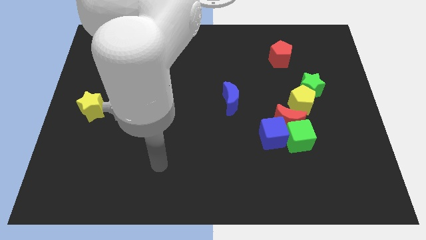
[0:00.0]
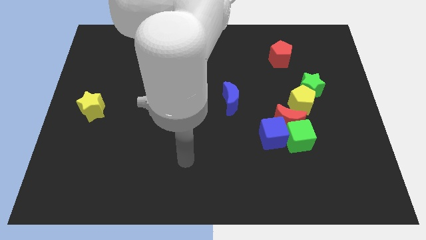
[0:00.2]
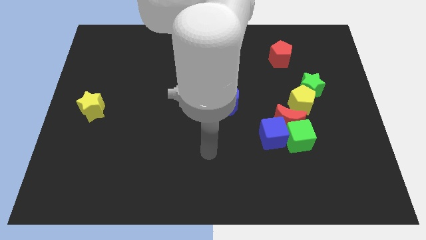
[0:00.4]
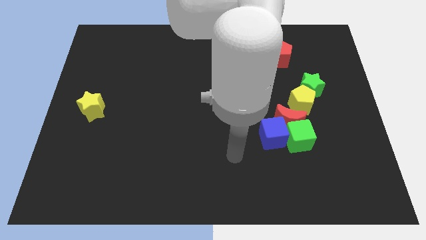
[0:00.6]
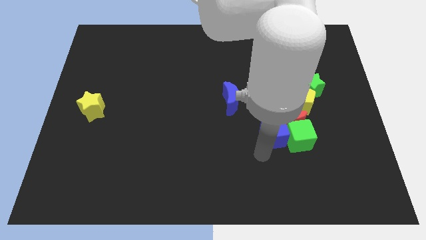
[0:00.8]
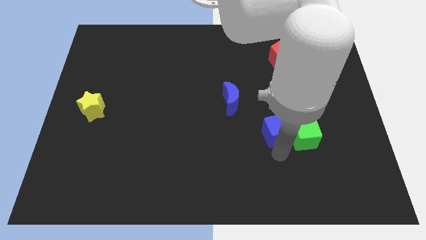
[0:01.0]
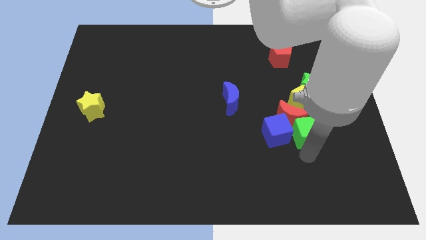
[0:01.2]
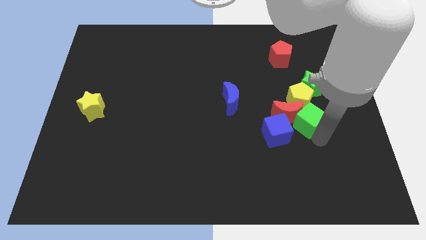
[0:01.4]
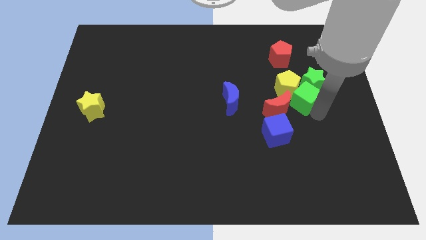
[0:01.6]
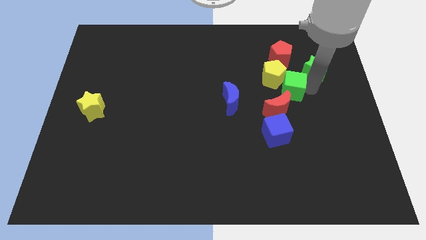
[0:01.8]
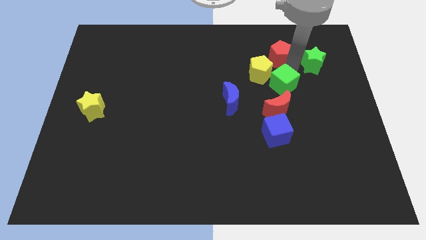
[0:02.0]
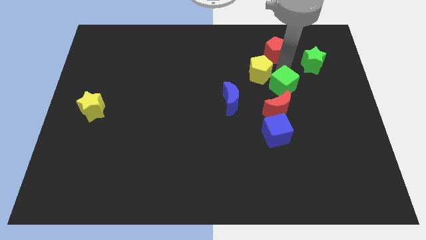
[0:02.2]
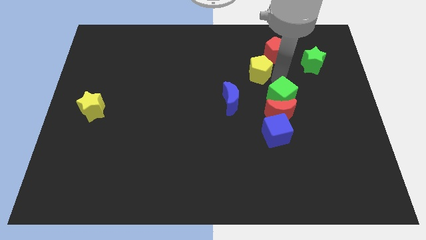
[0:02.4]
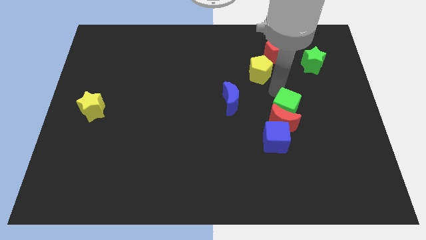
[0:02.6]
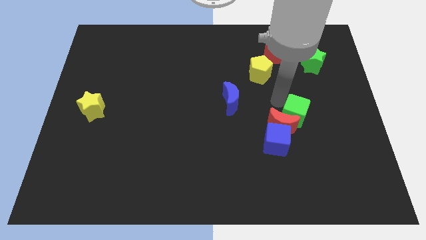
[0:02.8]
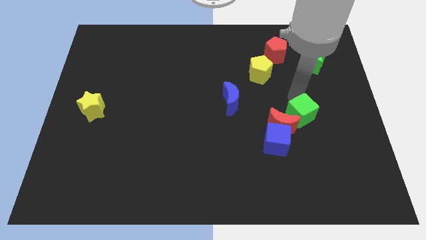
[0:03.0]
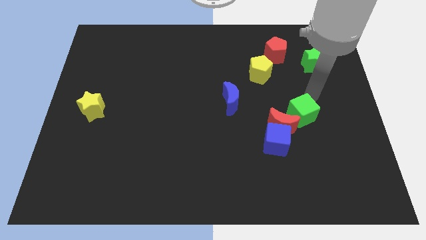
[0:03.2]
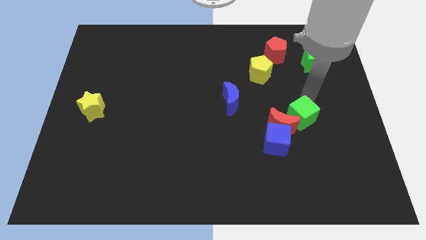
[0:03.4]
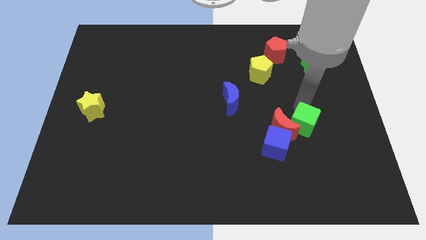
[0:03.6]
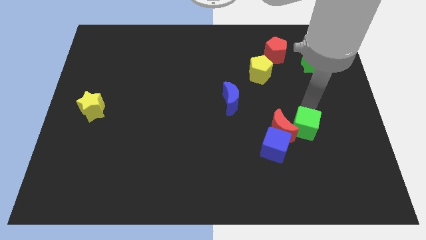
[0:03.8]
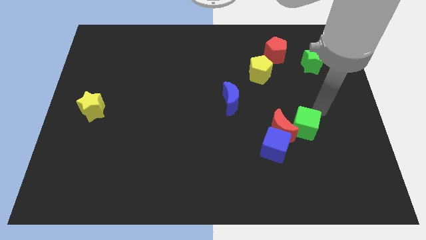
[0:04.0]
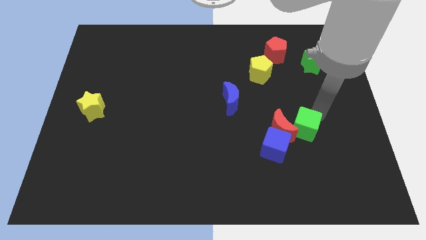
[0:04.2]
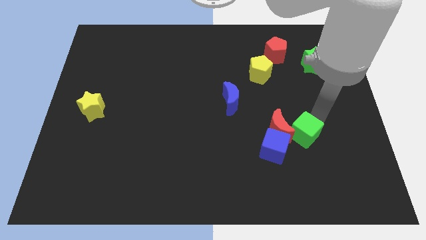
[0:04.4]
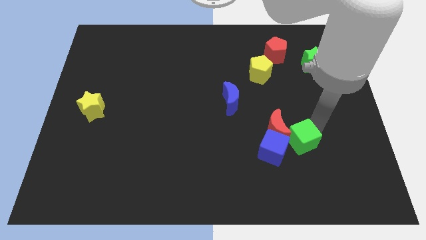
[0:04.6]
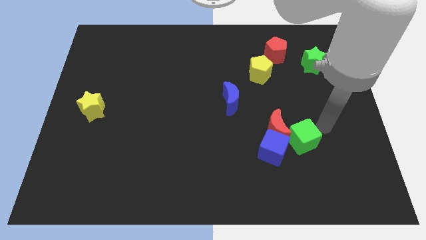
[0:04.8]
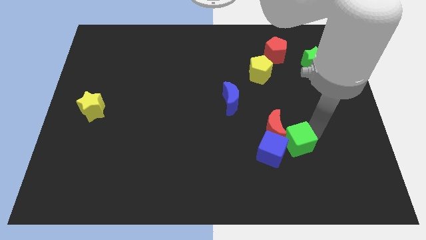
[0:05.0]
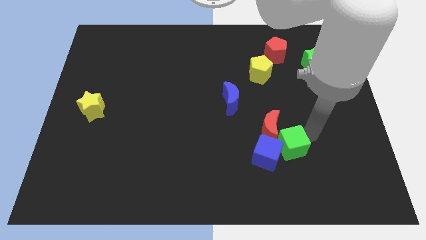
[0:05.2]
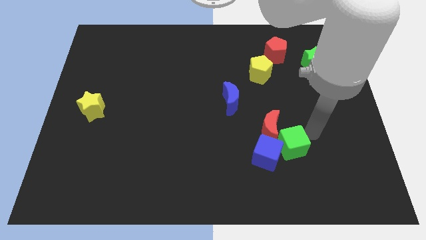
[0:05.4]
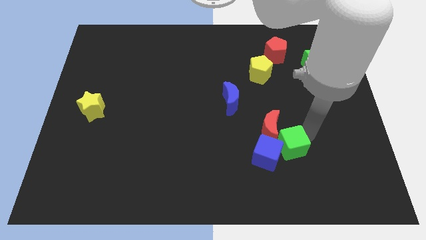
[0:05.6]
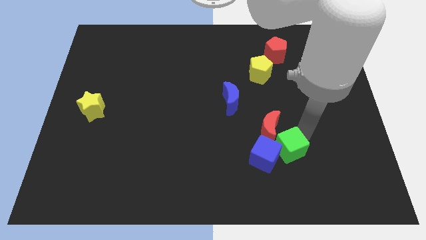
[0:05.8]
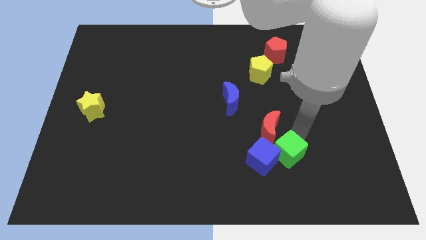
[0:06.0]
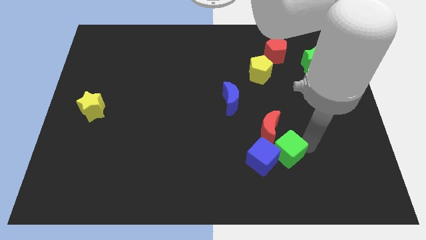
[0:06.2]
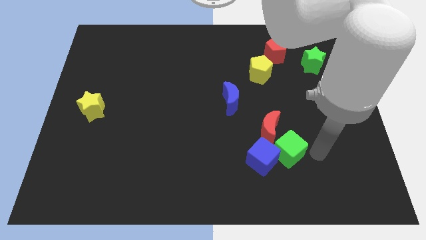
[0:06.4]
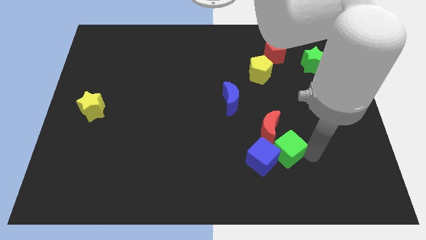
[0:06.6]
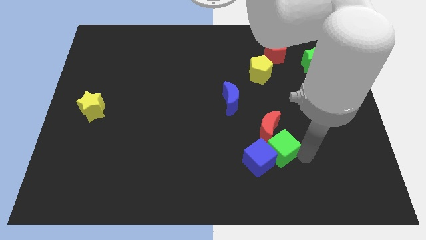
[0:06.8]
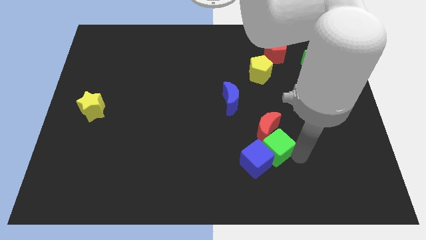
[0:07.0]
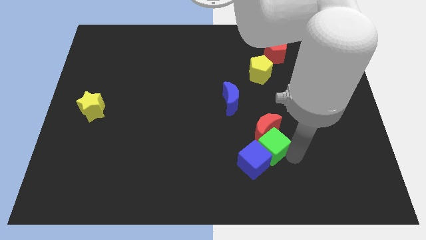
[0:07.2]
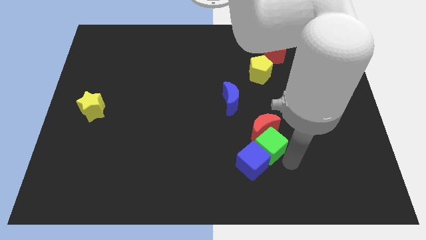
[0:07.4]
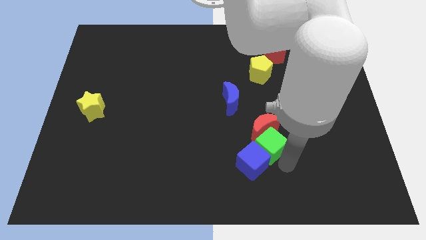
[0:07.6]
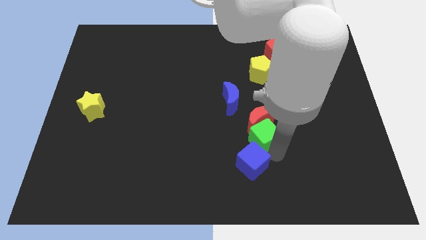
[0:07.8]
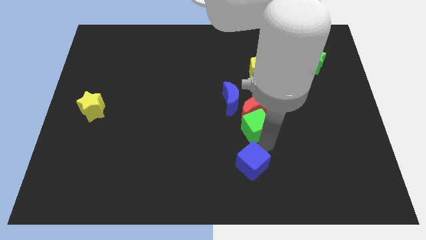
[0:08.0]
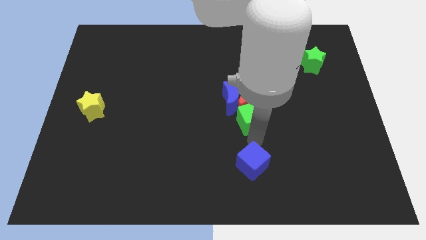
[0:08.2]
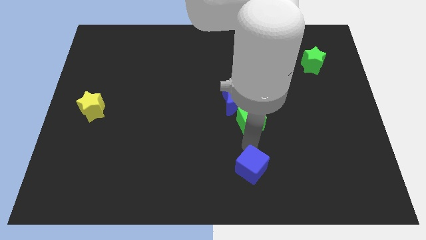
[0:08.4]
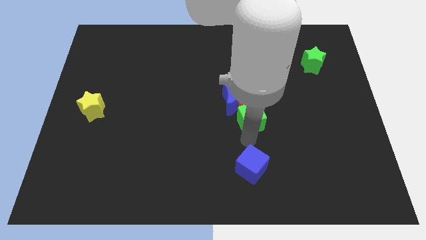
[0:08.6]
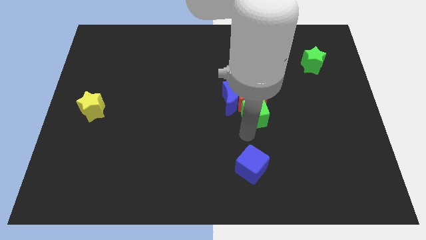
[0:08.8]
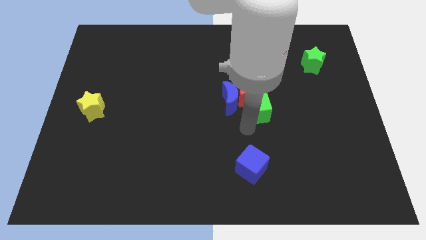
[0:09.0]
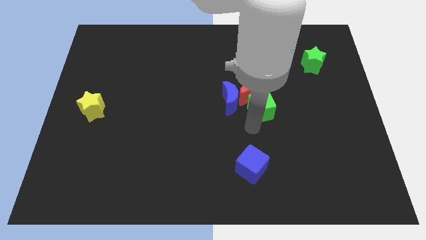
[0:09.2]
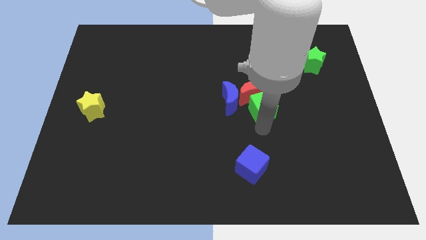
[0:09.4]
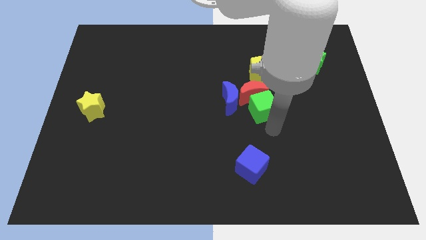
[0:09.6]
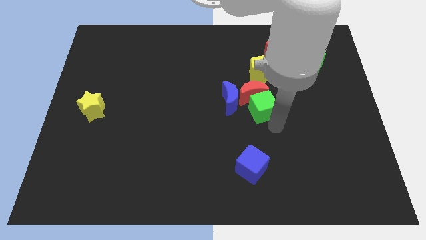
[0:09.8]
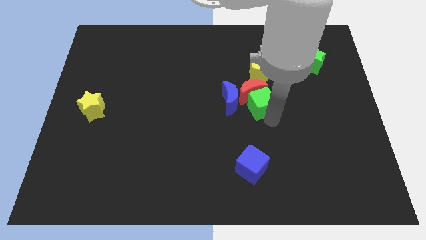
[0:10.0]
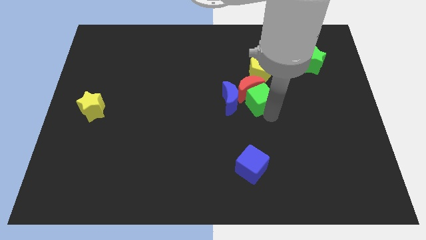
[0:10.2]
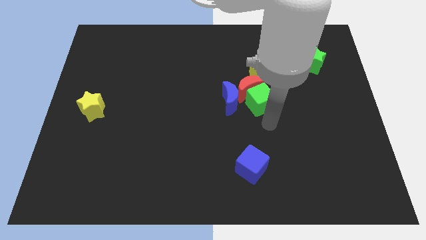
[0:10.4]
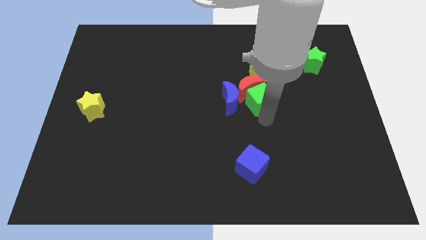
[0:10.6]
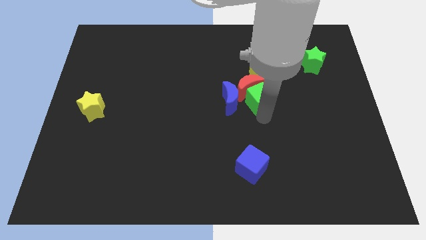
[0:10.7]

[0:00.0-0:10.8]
push the green cube diagonally up and to the right of the blue moon

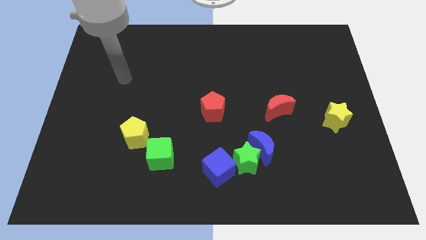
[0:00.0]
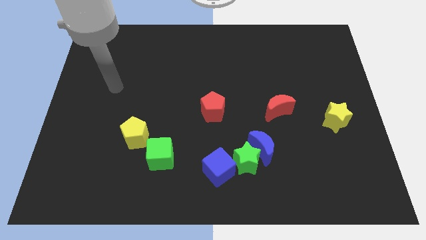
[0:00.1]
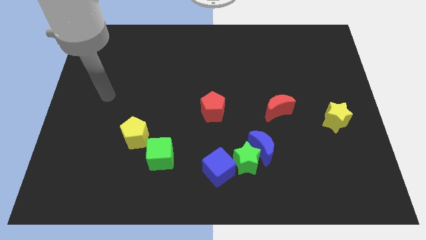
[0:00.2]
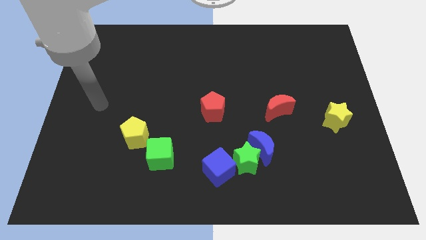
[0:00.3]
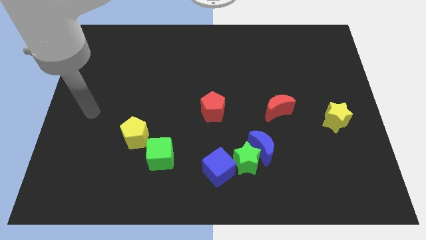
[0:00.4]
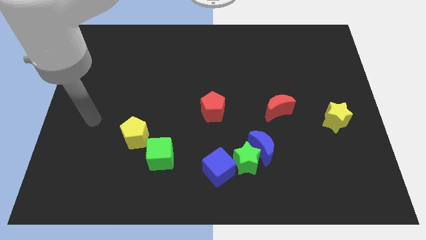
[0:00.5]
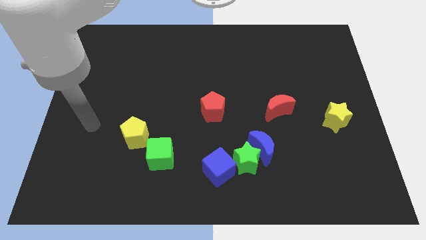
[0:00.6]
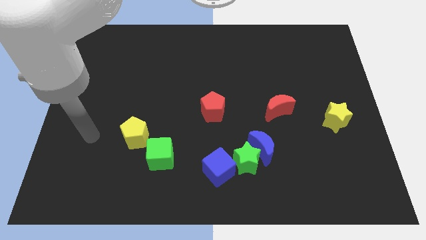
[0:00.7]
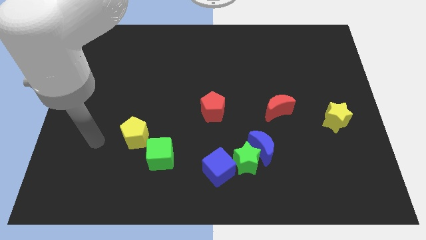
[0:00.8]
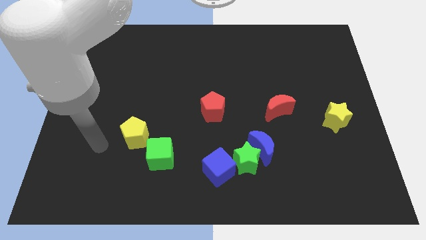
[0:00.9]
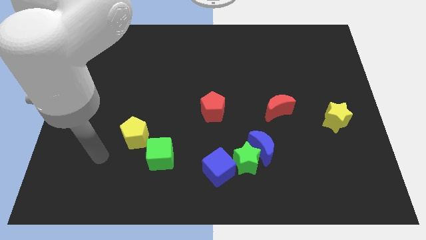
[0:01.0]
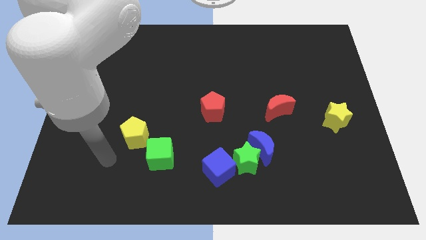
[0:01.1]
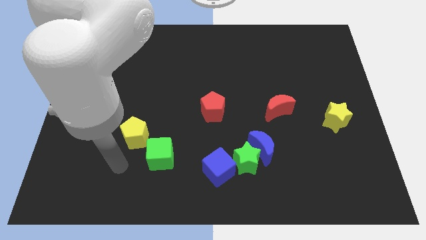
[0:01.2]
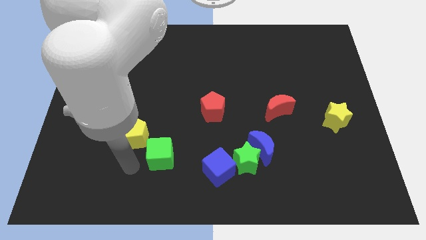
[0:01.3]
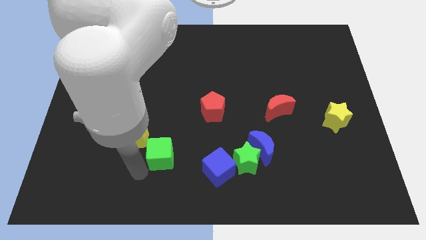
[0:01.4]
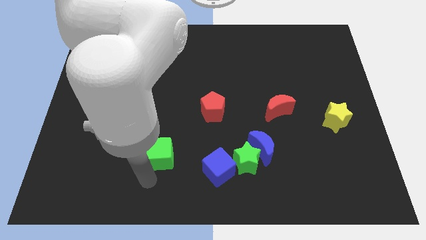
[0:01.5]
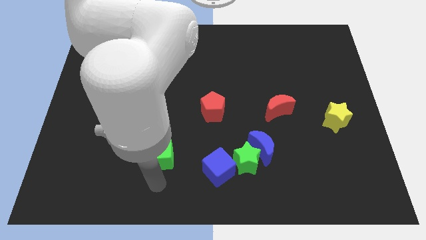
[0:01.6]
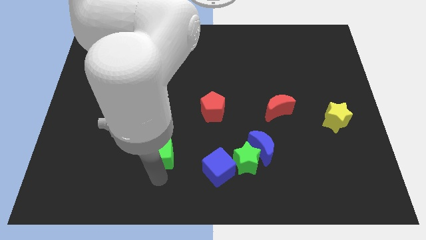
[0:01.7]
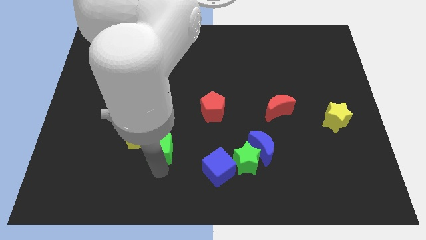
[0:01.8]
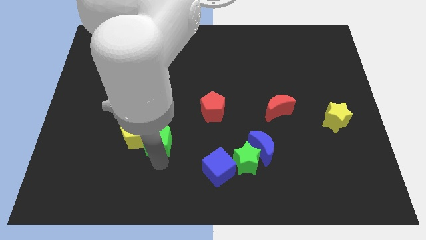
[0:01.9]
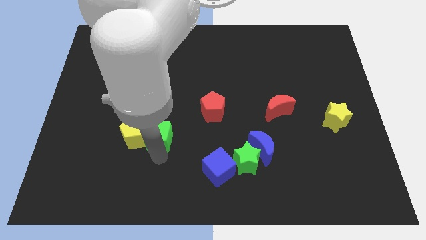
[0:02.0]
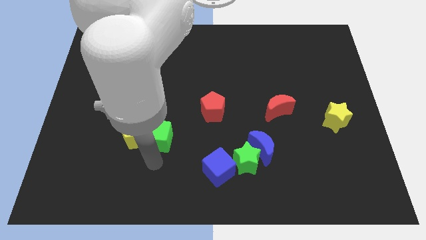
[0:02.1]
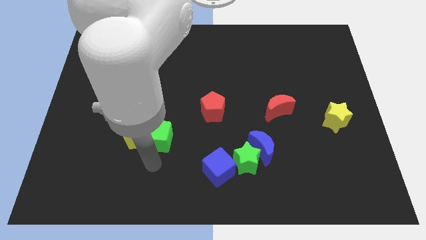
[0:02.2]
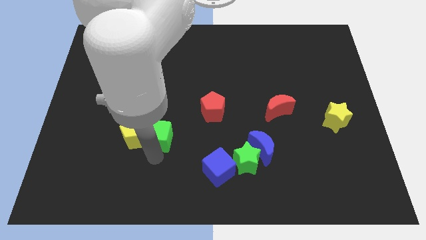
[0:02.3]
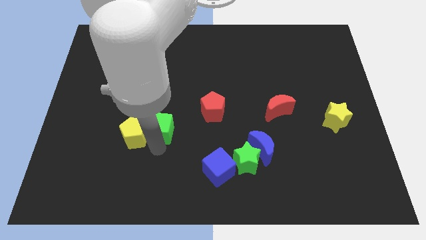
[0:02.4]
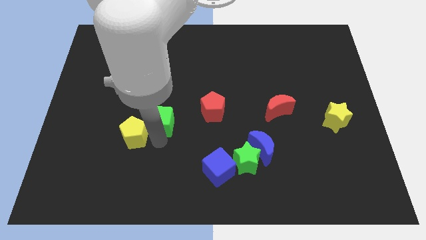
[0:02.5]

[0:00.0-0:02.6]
move the green cube to the left side of the red pentagon
